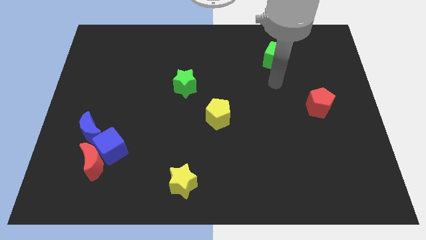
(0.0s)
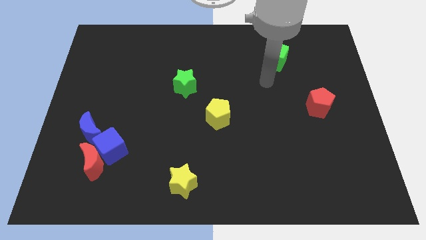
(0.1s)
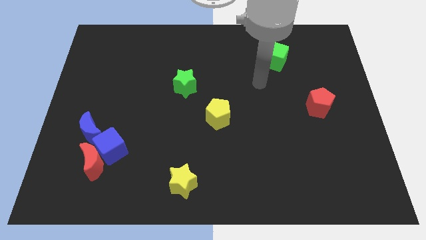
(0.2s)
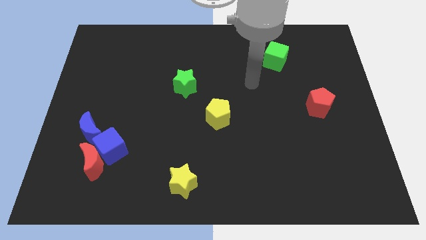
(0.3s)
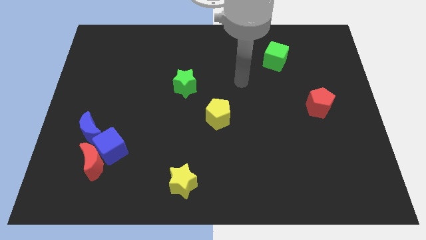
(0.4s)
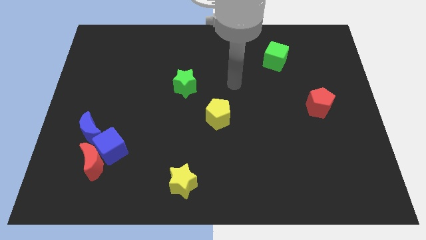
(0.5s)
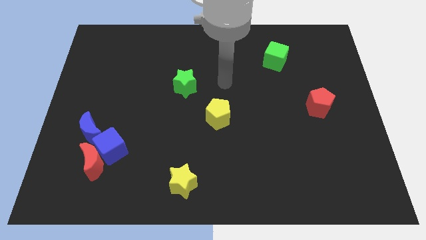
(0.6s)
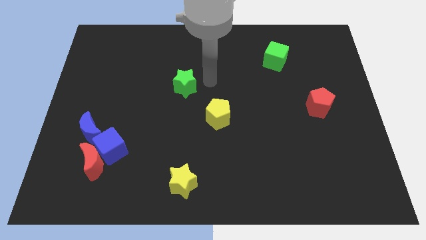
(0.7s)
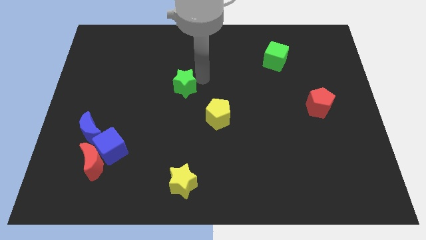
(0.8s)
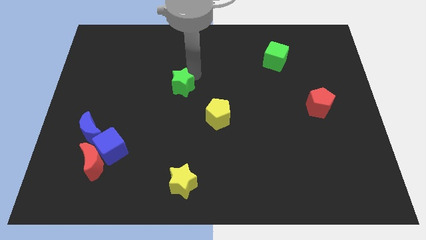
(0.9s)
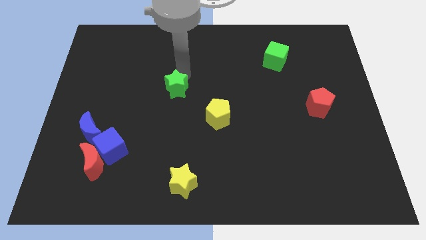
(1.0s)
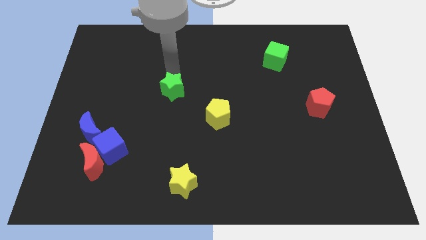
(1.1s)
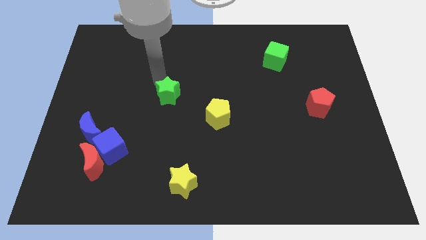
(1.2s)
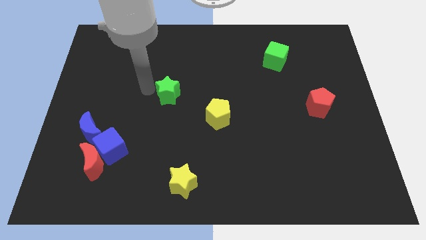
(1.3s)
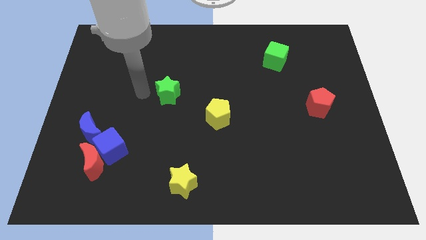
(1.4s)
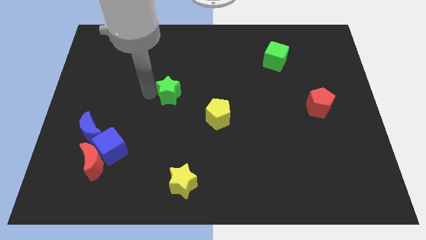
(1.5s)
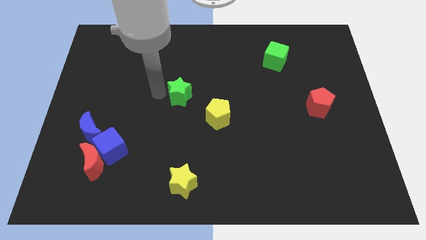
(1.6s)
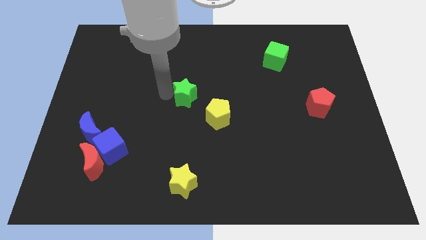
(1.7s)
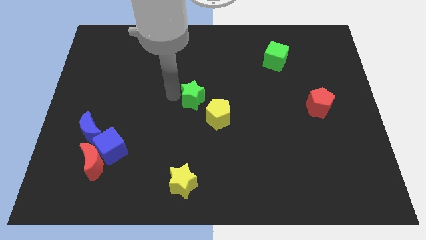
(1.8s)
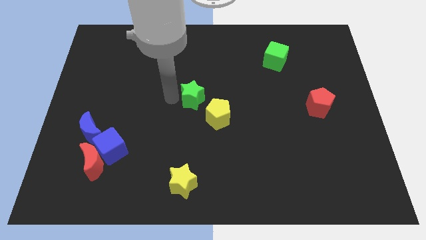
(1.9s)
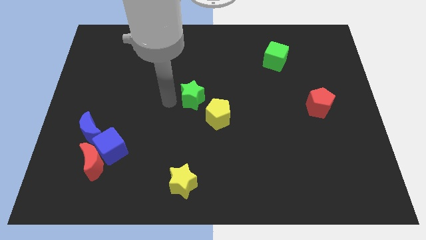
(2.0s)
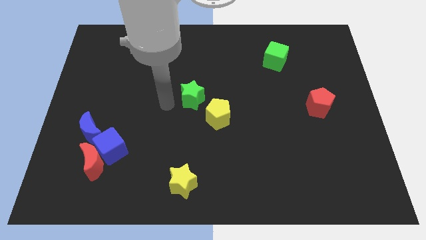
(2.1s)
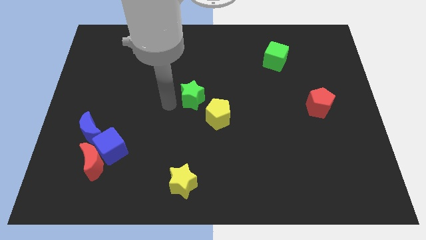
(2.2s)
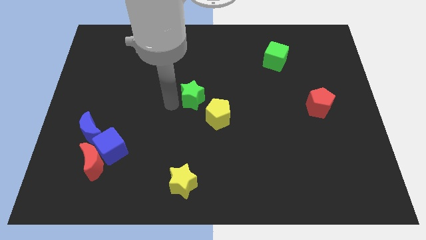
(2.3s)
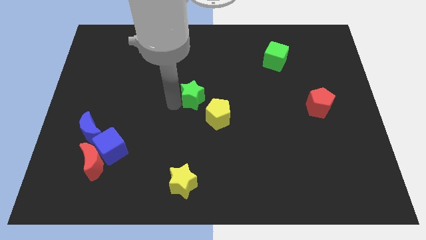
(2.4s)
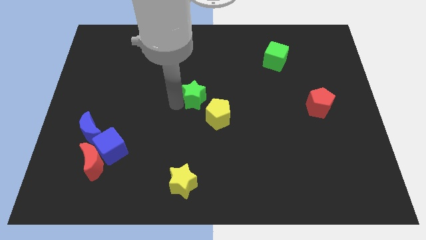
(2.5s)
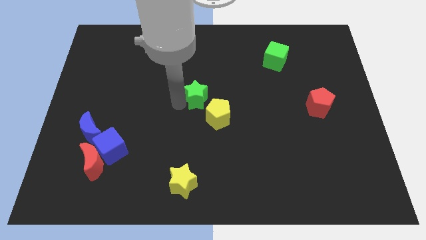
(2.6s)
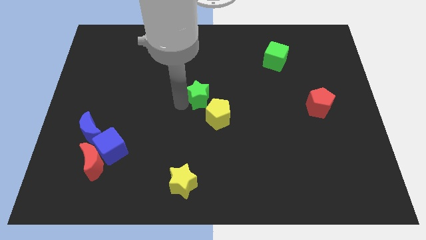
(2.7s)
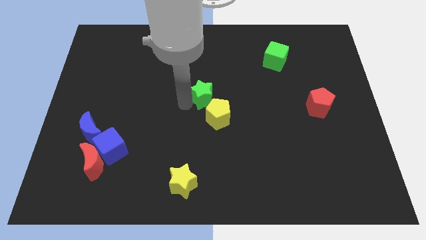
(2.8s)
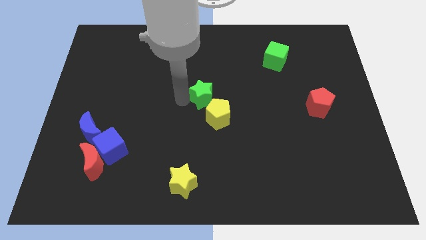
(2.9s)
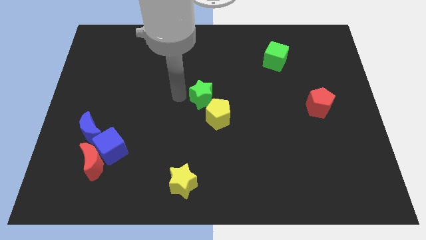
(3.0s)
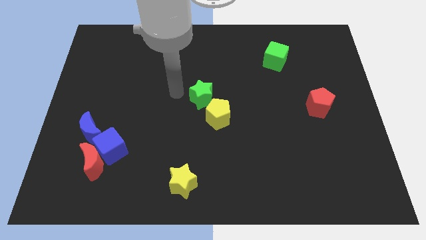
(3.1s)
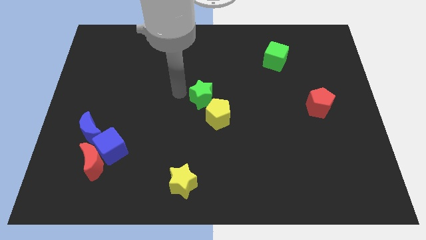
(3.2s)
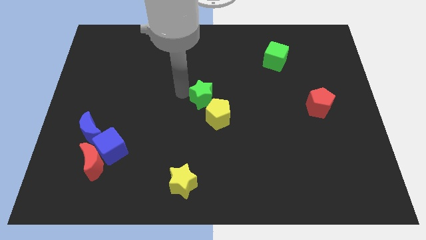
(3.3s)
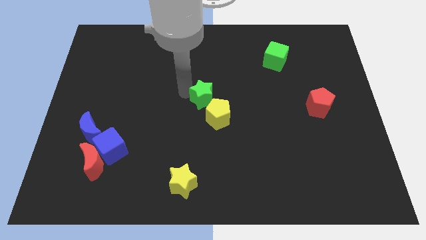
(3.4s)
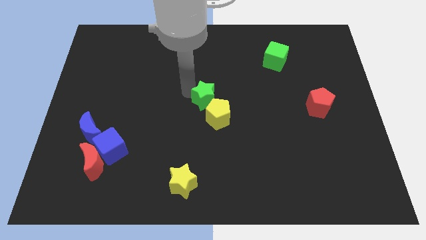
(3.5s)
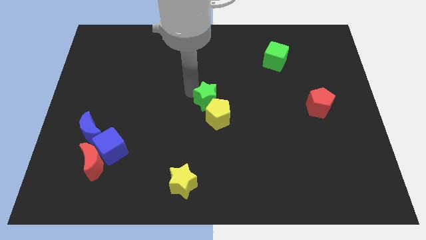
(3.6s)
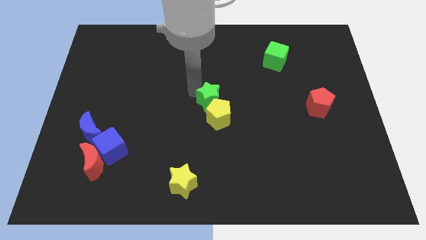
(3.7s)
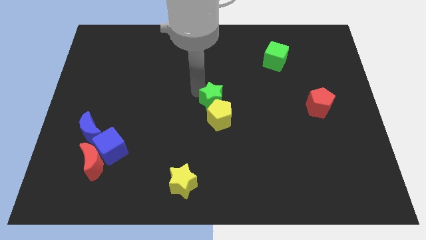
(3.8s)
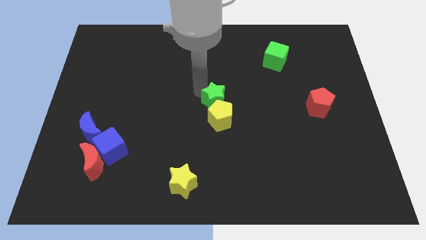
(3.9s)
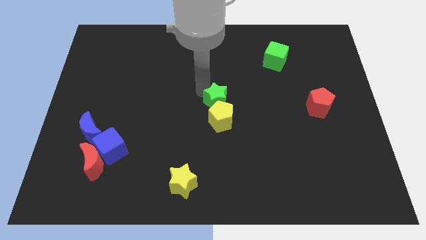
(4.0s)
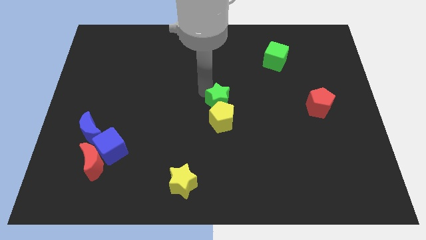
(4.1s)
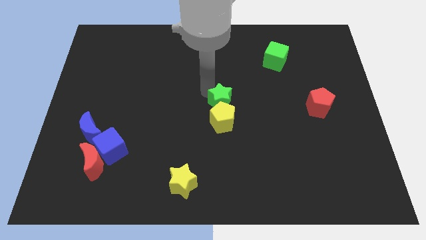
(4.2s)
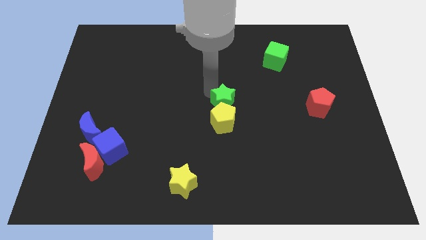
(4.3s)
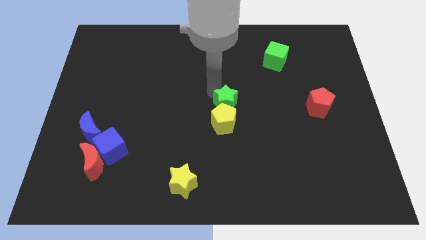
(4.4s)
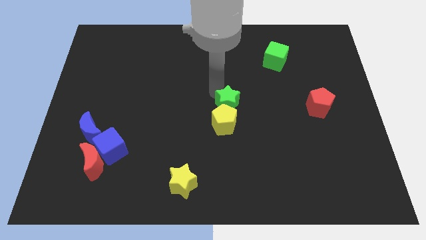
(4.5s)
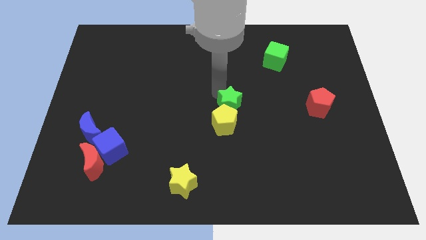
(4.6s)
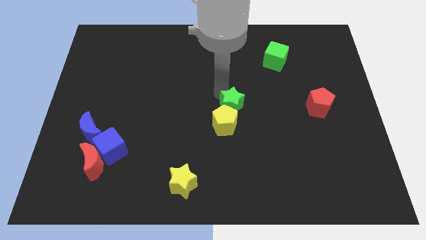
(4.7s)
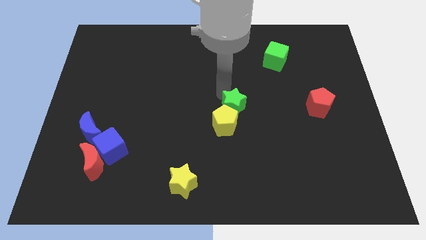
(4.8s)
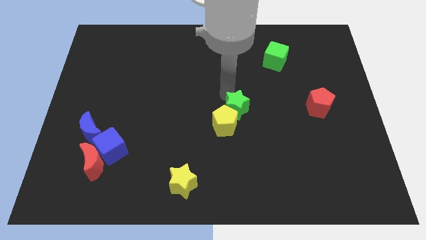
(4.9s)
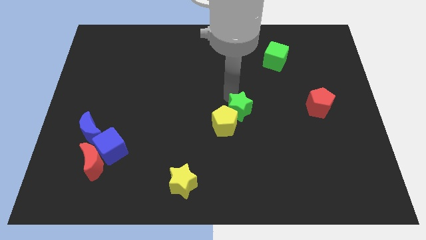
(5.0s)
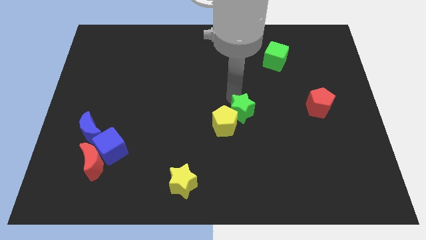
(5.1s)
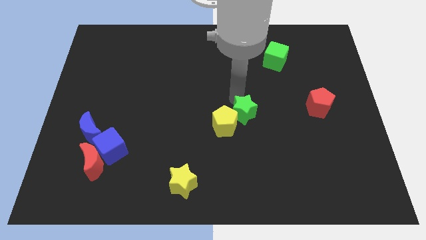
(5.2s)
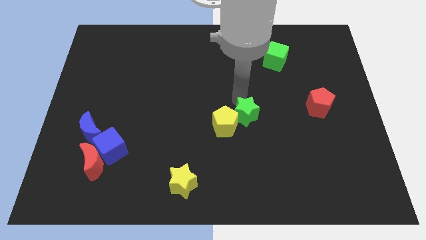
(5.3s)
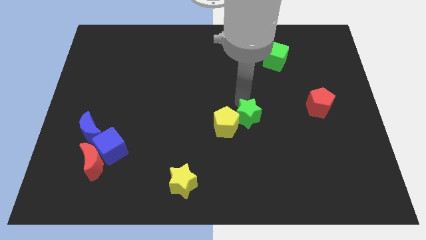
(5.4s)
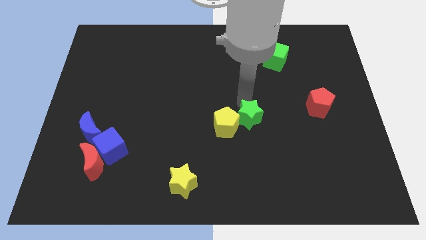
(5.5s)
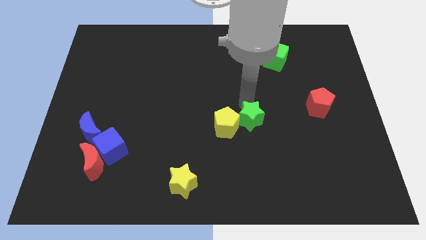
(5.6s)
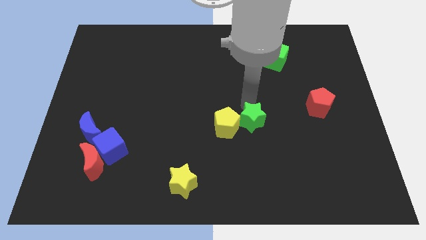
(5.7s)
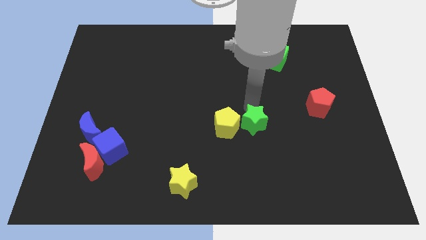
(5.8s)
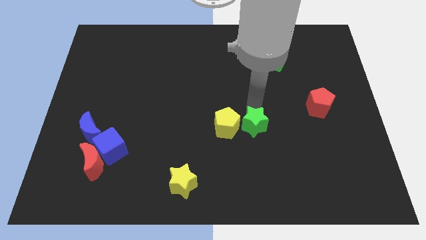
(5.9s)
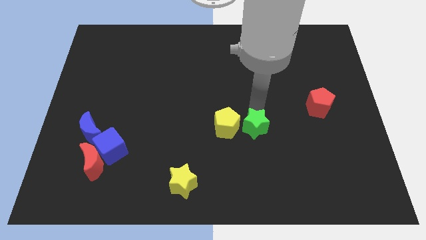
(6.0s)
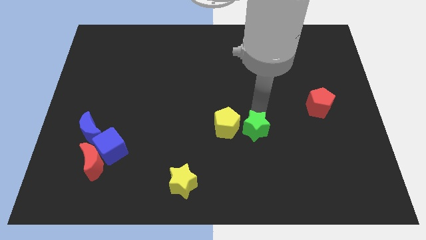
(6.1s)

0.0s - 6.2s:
push the green star down and right

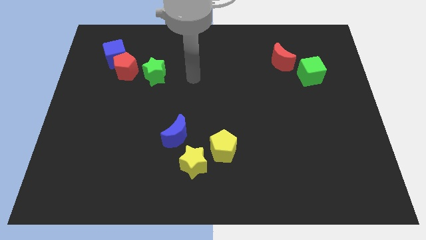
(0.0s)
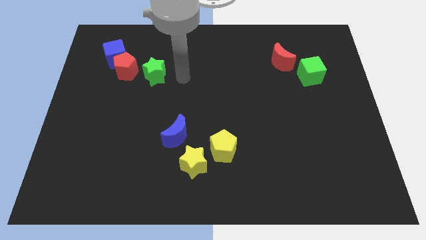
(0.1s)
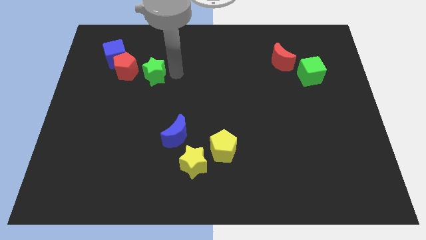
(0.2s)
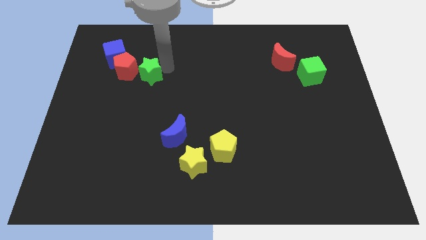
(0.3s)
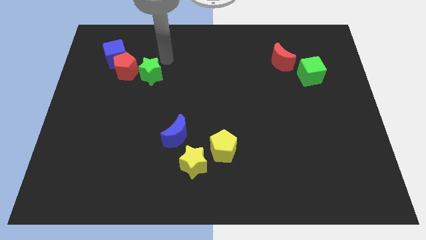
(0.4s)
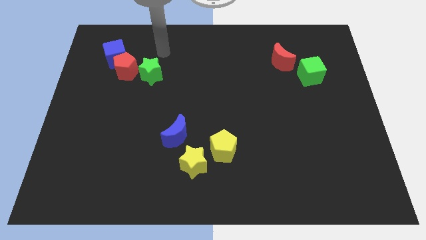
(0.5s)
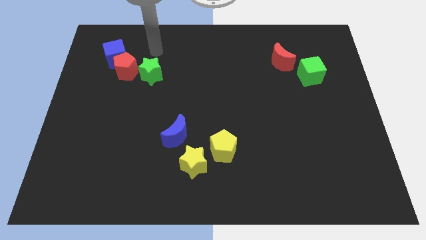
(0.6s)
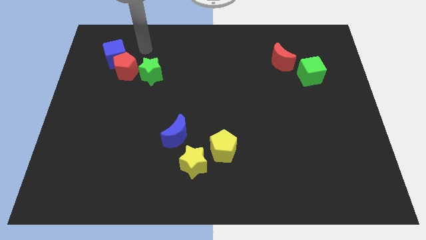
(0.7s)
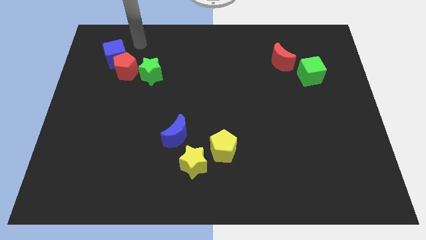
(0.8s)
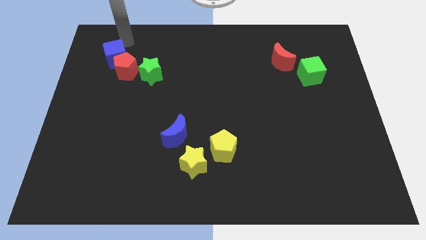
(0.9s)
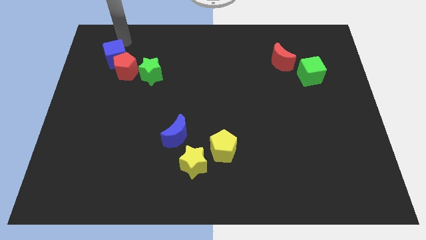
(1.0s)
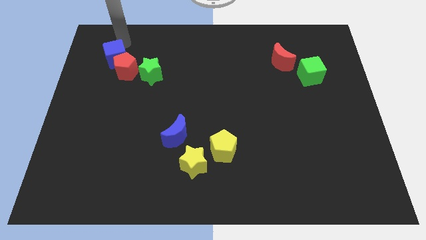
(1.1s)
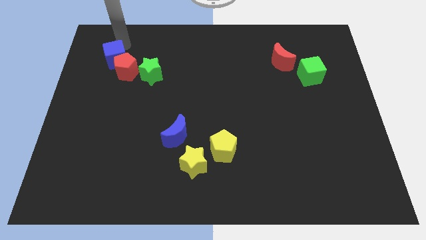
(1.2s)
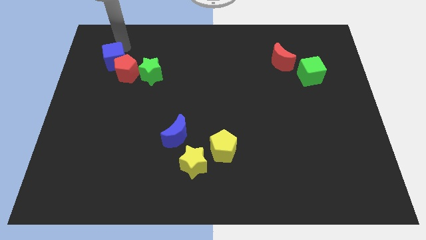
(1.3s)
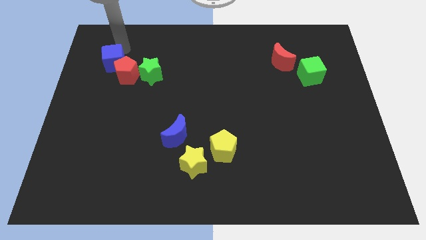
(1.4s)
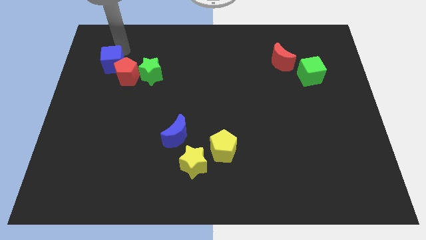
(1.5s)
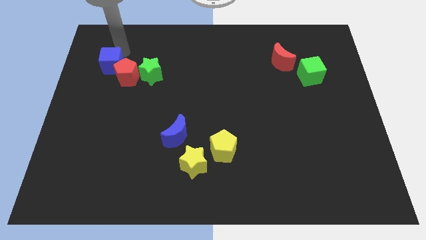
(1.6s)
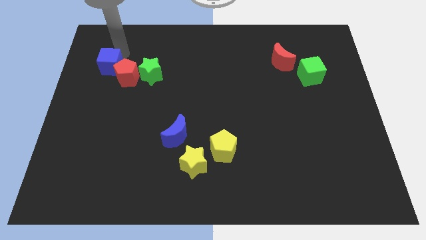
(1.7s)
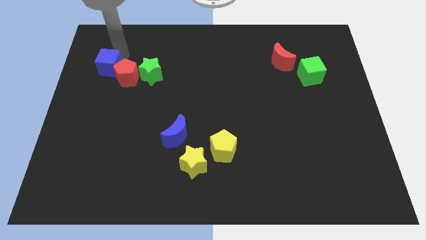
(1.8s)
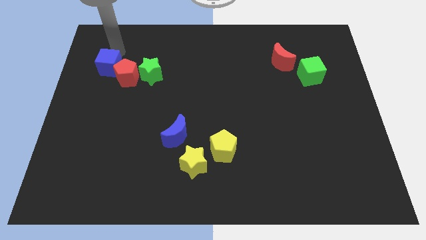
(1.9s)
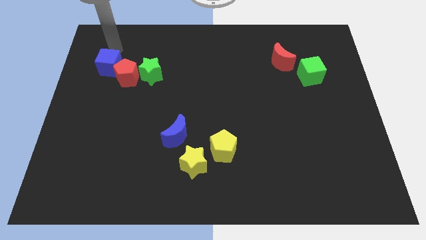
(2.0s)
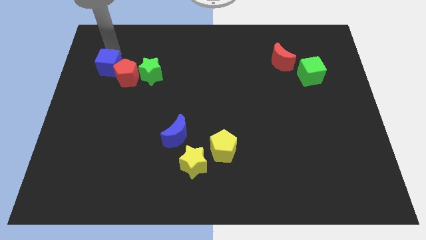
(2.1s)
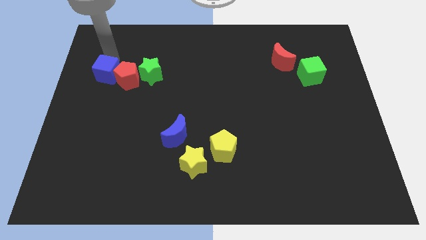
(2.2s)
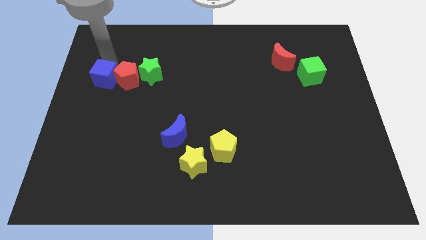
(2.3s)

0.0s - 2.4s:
move the blue cube a bit down
